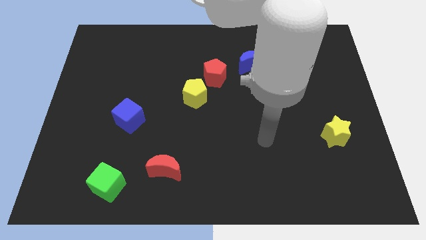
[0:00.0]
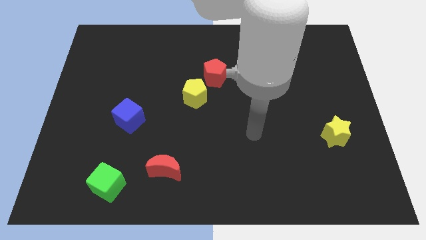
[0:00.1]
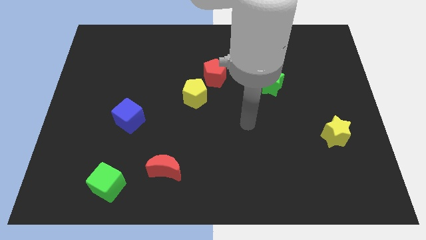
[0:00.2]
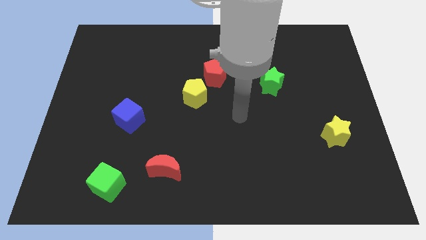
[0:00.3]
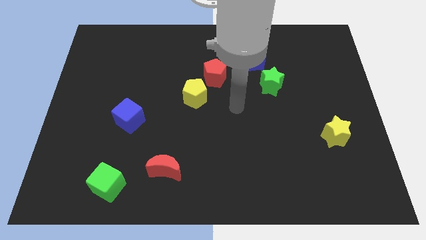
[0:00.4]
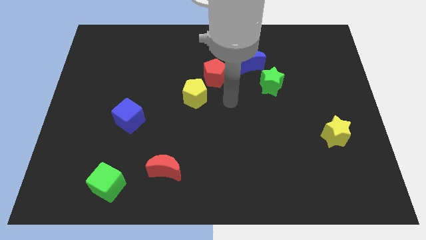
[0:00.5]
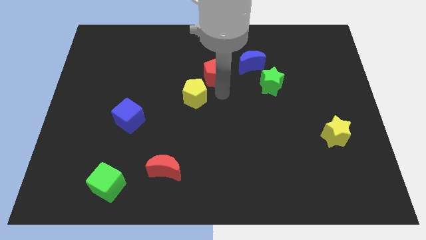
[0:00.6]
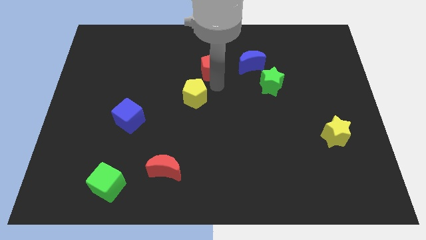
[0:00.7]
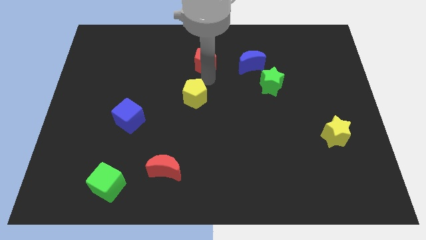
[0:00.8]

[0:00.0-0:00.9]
move the yellow pentagon away from the red pentagon

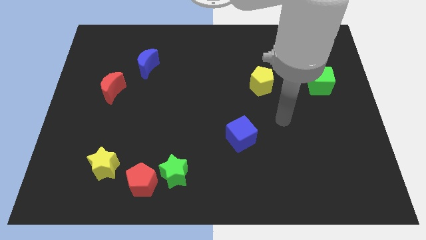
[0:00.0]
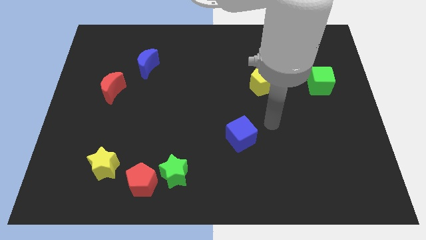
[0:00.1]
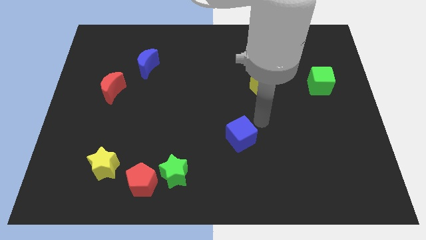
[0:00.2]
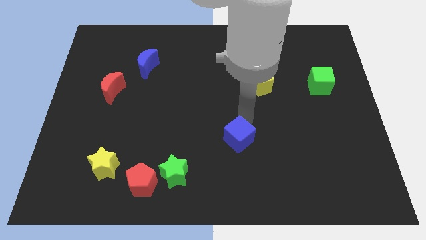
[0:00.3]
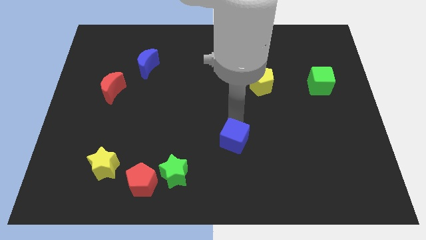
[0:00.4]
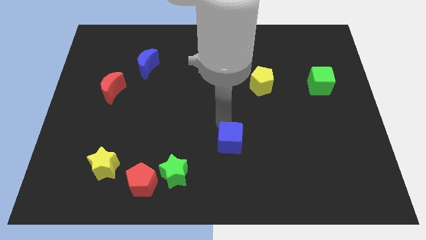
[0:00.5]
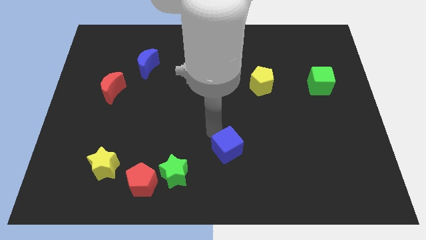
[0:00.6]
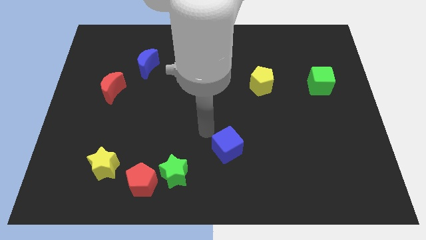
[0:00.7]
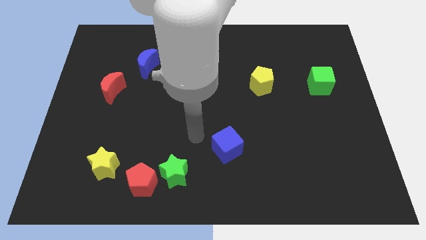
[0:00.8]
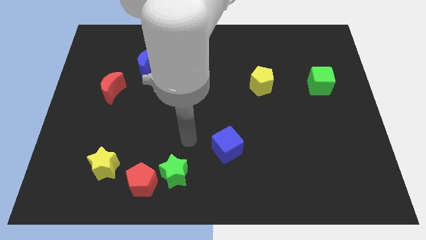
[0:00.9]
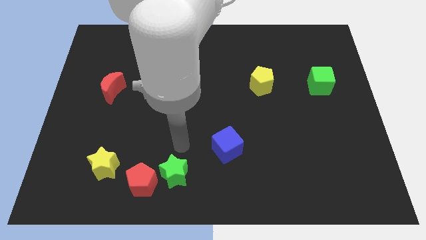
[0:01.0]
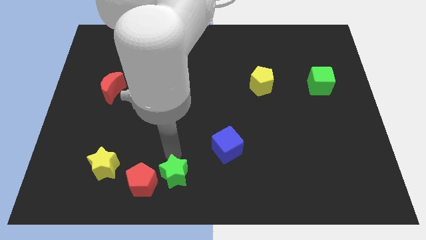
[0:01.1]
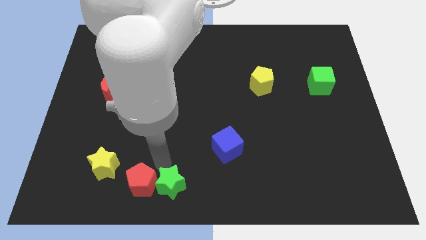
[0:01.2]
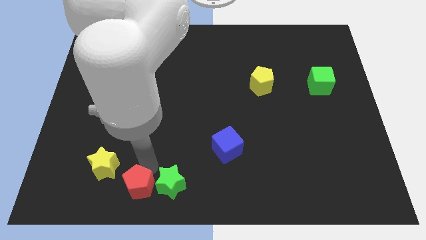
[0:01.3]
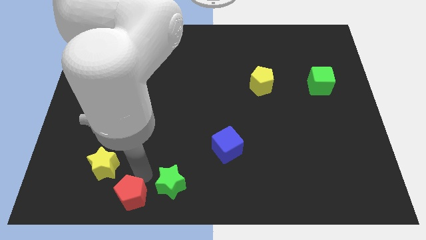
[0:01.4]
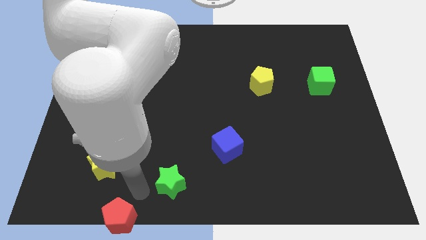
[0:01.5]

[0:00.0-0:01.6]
pull the green star apart from the red pentagon

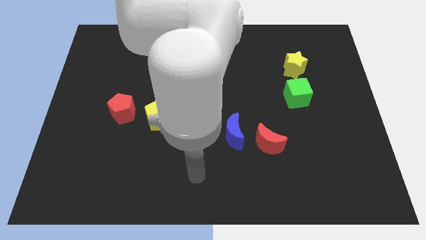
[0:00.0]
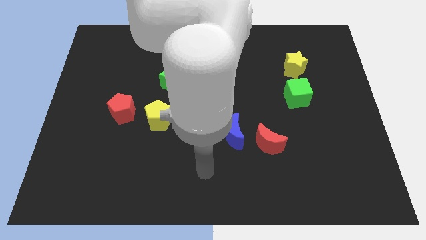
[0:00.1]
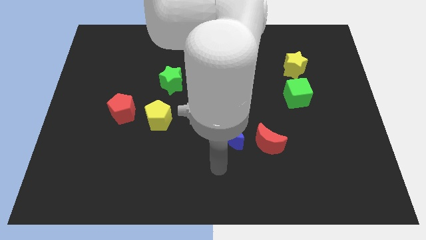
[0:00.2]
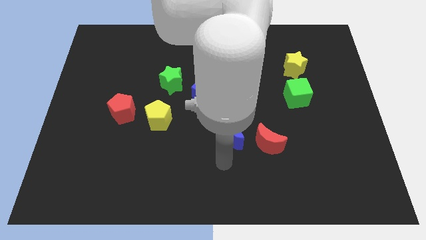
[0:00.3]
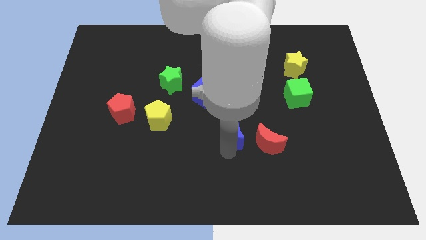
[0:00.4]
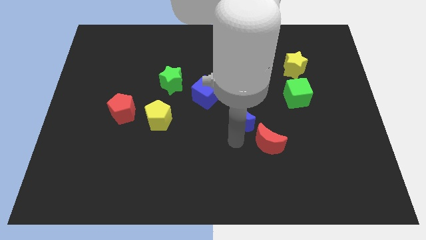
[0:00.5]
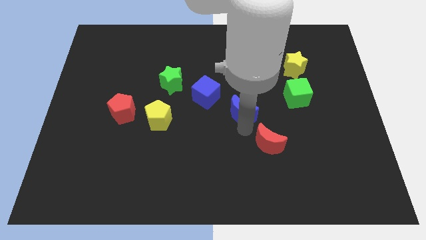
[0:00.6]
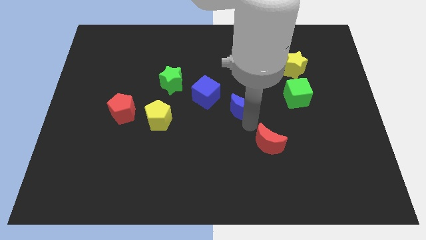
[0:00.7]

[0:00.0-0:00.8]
separate the red moon from the blue moon

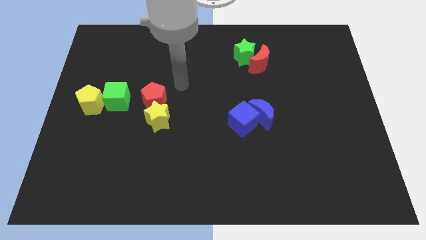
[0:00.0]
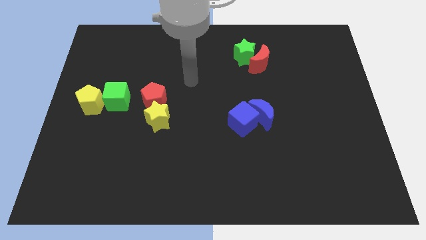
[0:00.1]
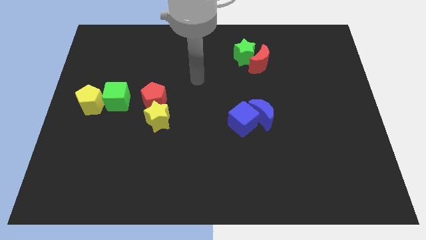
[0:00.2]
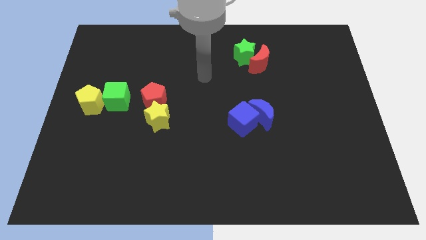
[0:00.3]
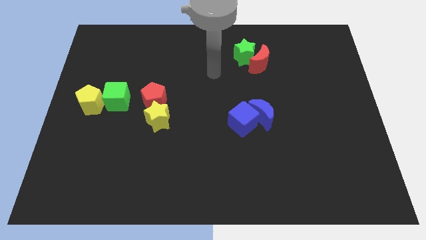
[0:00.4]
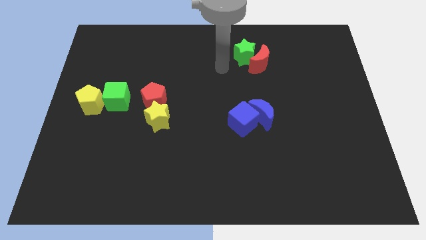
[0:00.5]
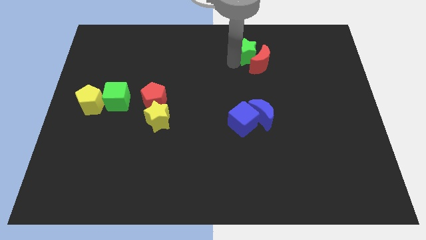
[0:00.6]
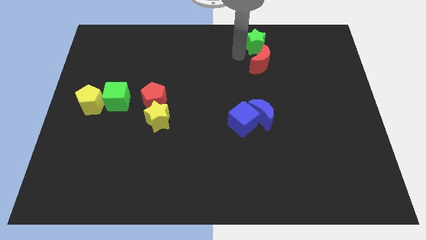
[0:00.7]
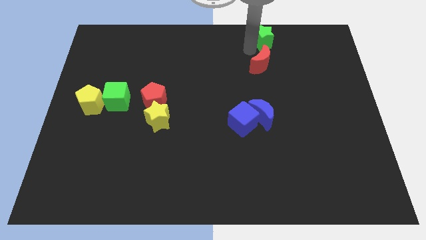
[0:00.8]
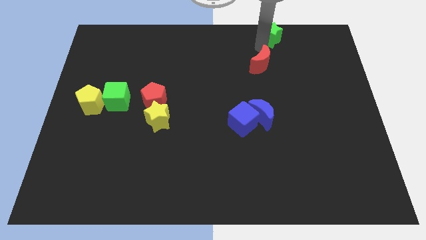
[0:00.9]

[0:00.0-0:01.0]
pull the red moon apart from the green star

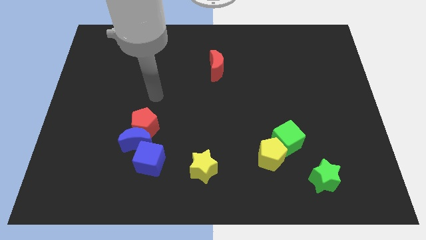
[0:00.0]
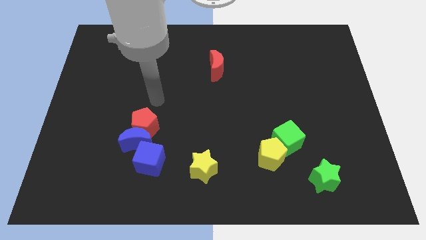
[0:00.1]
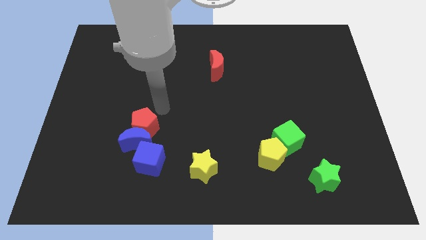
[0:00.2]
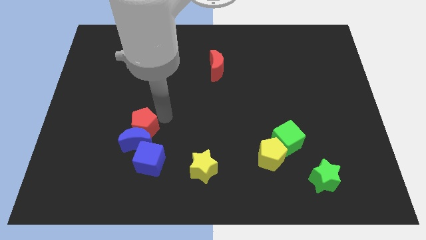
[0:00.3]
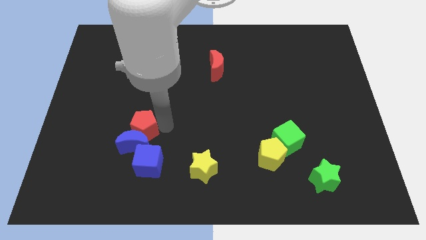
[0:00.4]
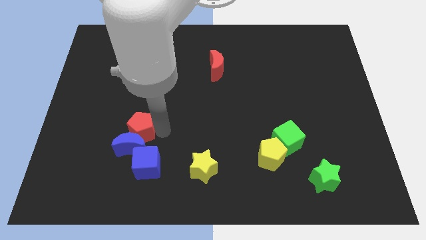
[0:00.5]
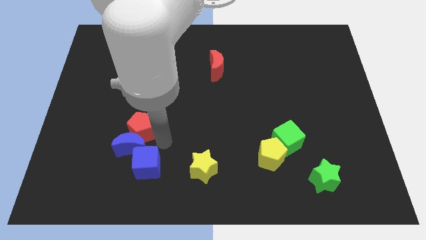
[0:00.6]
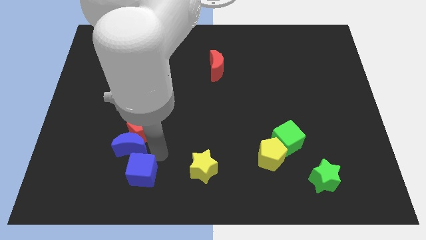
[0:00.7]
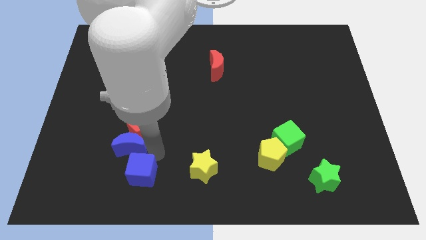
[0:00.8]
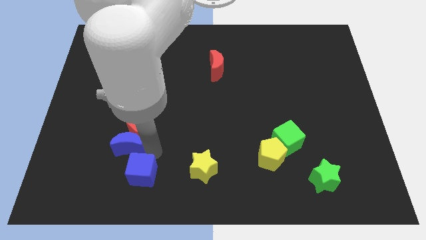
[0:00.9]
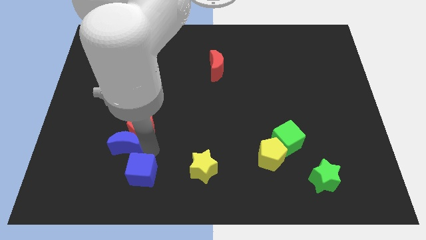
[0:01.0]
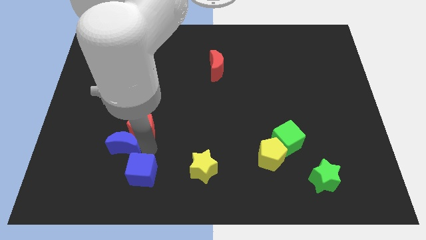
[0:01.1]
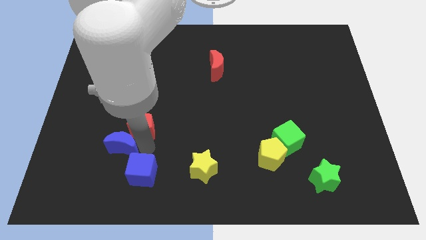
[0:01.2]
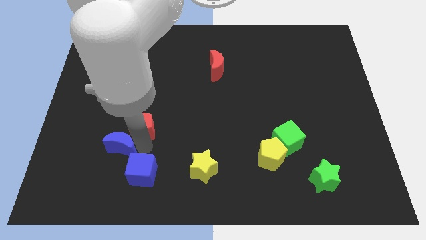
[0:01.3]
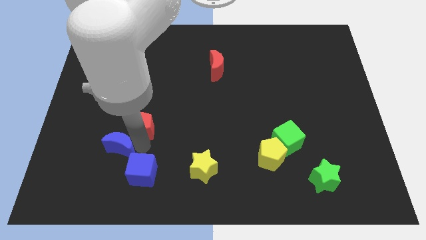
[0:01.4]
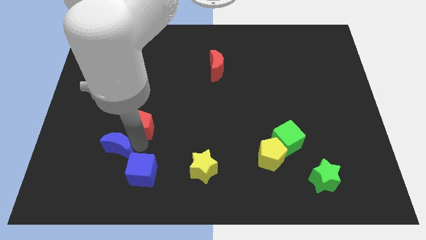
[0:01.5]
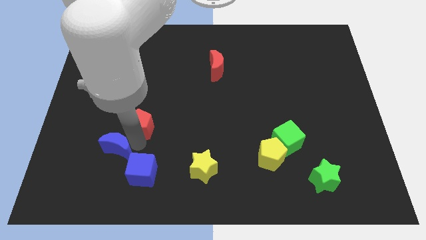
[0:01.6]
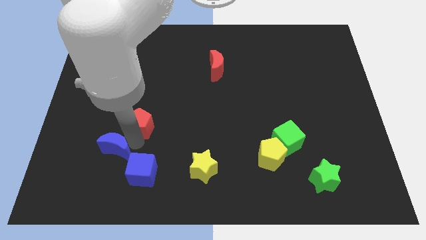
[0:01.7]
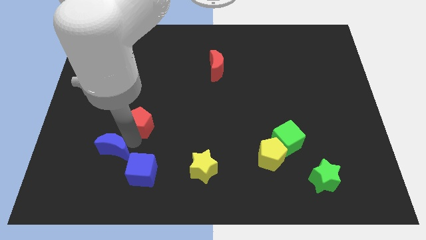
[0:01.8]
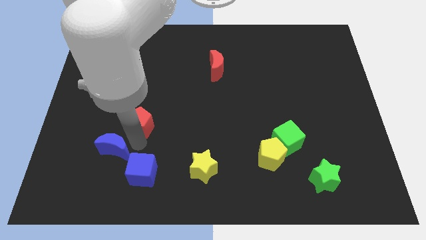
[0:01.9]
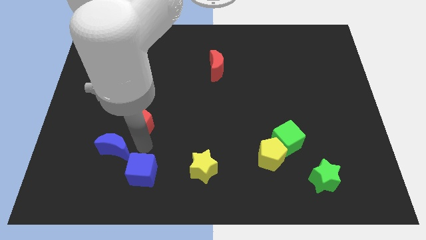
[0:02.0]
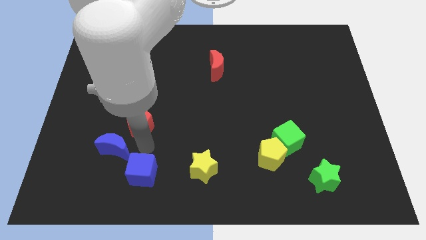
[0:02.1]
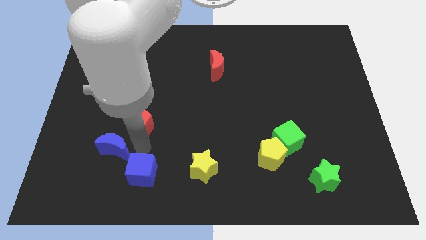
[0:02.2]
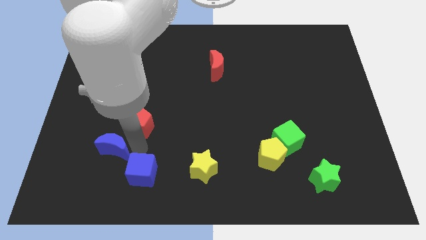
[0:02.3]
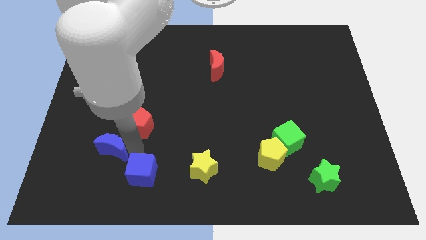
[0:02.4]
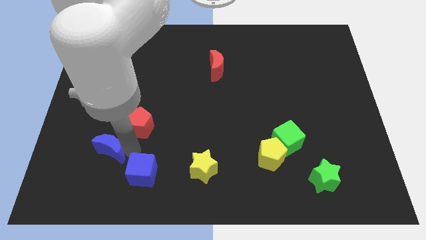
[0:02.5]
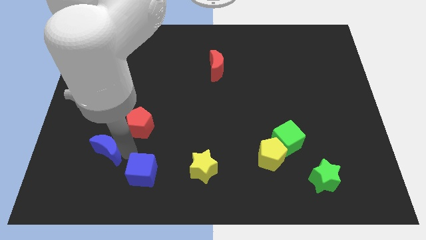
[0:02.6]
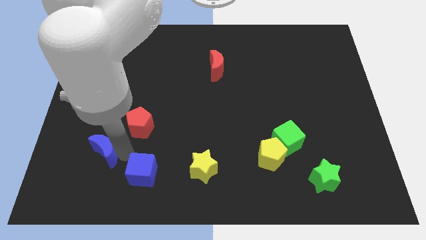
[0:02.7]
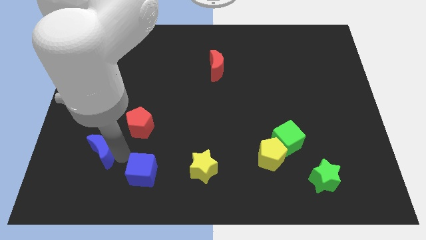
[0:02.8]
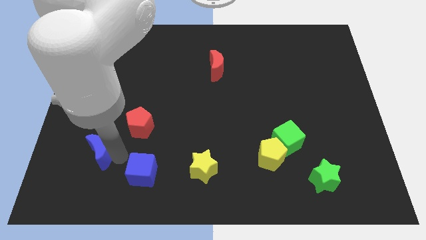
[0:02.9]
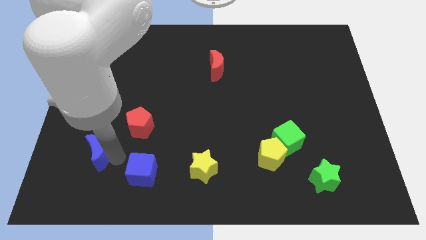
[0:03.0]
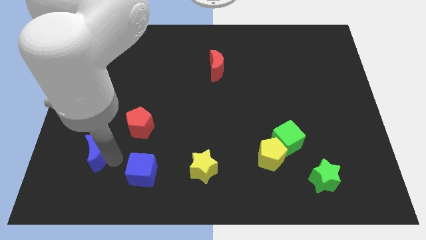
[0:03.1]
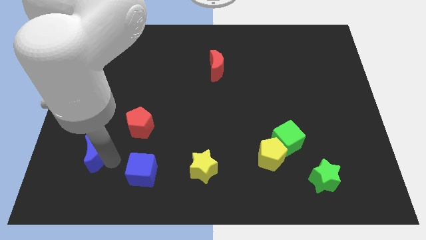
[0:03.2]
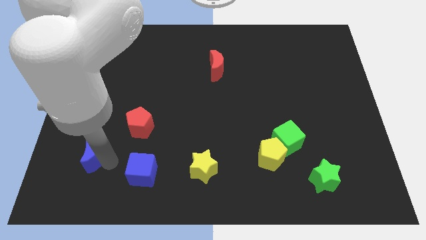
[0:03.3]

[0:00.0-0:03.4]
pull the blue moon apart from the red pentagon and blue cube

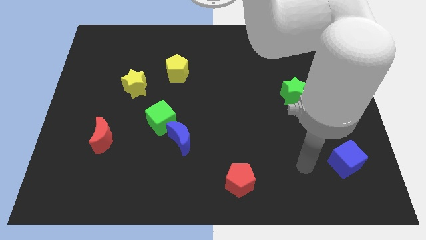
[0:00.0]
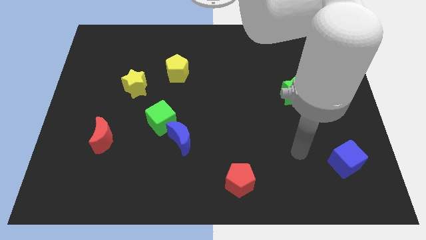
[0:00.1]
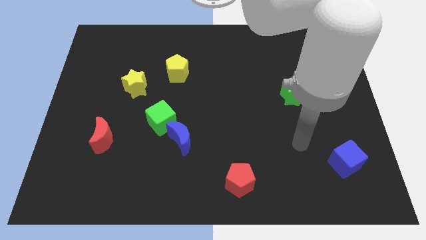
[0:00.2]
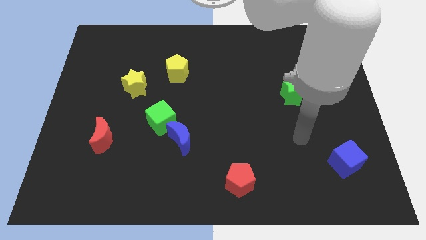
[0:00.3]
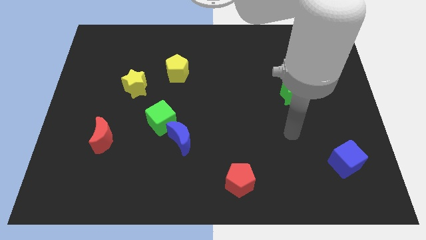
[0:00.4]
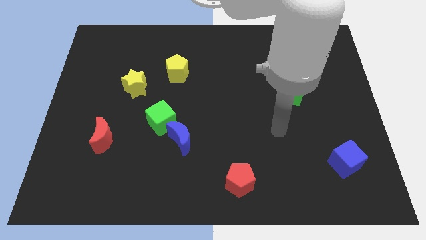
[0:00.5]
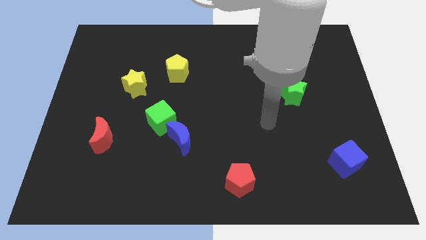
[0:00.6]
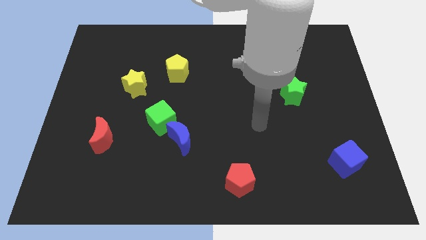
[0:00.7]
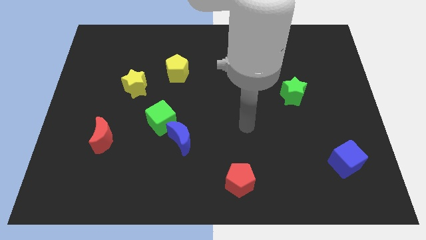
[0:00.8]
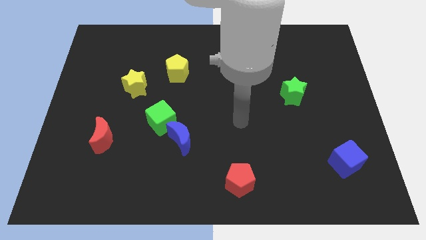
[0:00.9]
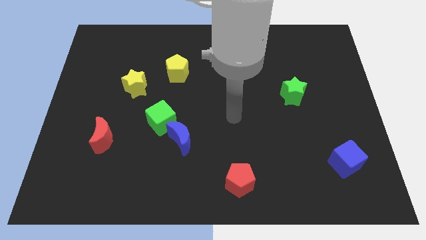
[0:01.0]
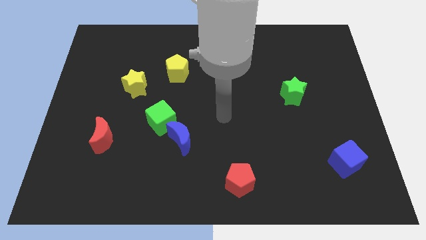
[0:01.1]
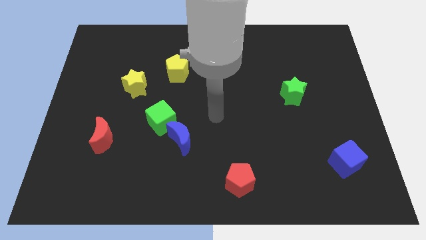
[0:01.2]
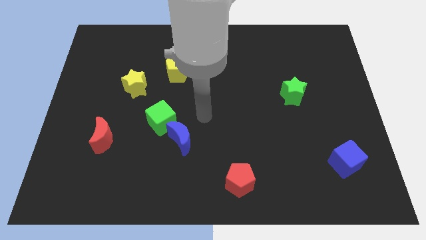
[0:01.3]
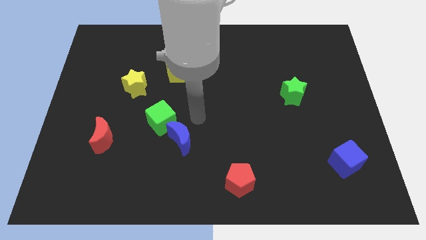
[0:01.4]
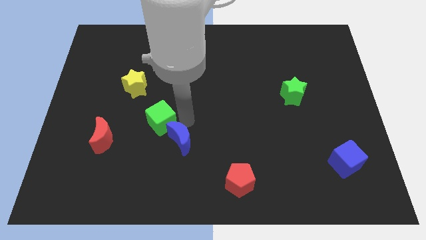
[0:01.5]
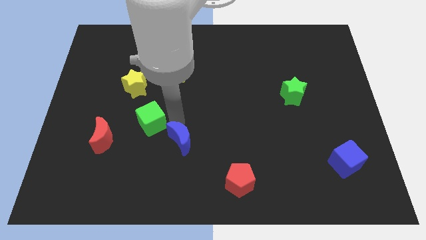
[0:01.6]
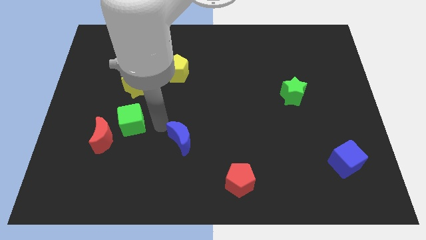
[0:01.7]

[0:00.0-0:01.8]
move the blue moon away from the green cube
